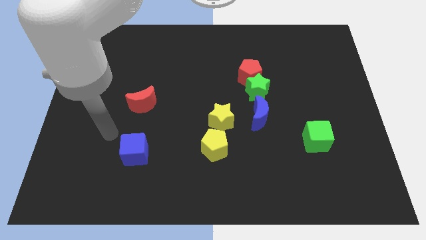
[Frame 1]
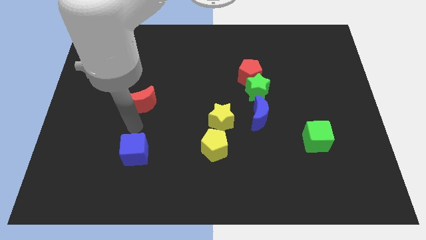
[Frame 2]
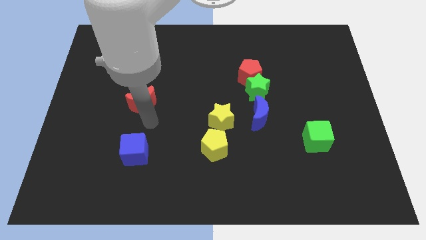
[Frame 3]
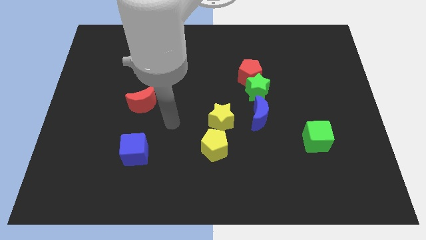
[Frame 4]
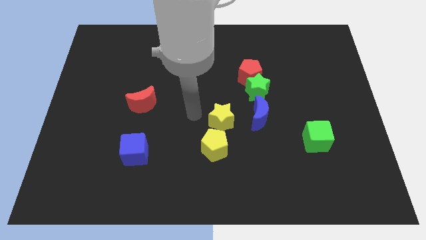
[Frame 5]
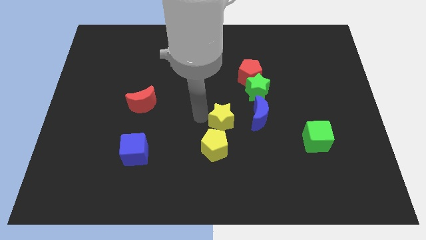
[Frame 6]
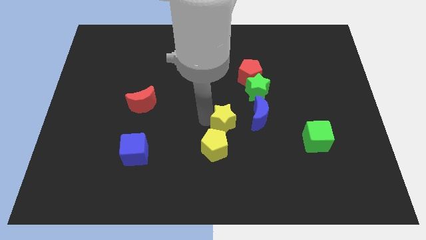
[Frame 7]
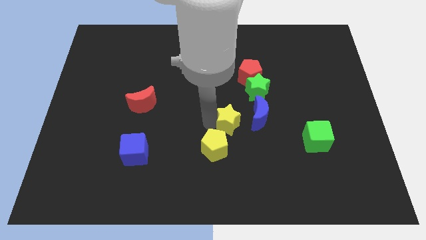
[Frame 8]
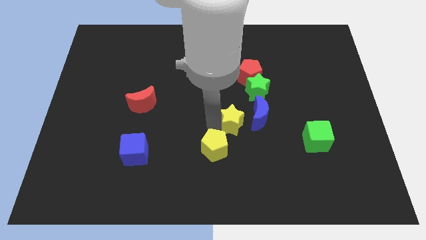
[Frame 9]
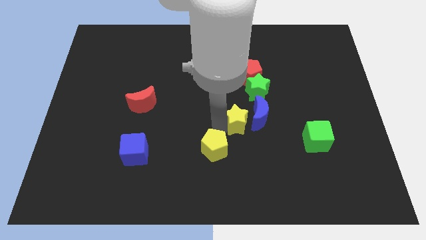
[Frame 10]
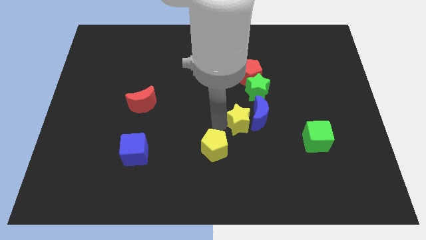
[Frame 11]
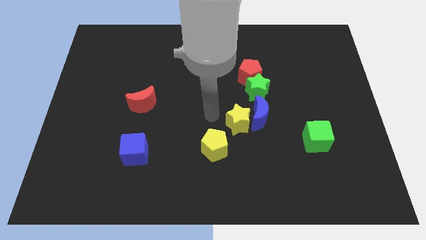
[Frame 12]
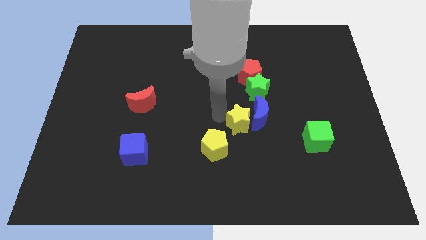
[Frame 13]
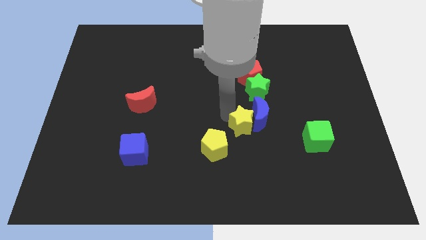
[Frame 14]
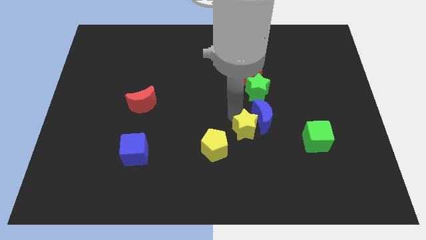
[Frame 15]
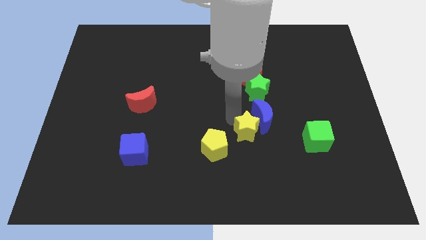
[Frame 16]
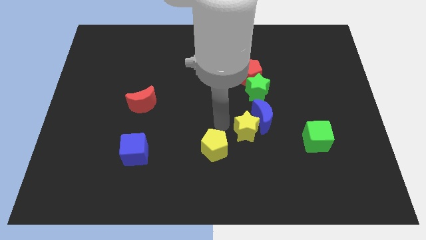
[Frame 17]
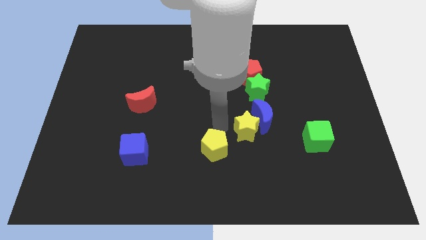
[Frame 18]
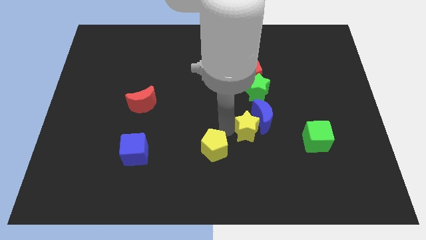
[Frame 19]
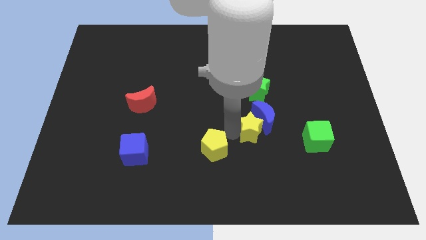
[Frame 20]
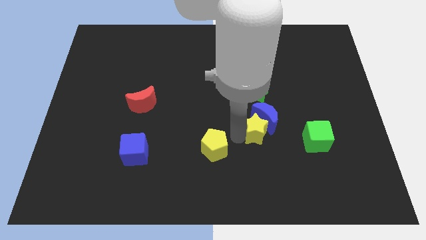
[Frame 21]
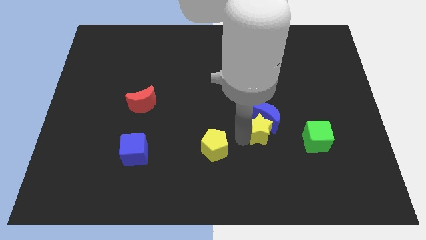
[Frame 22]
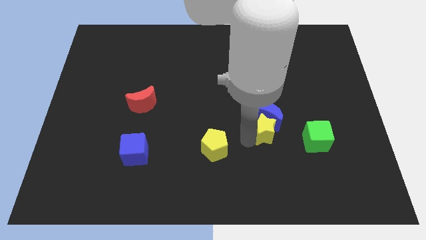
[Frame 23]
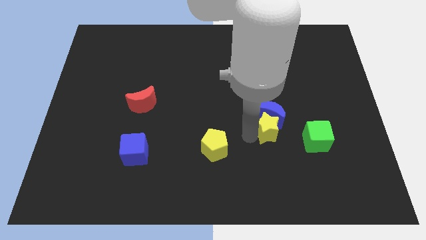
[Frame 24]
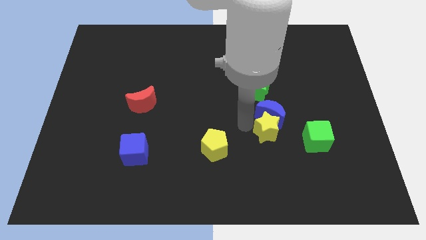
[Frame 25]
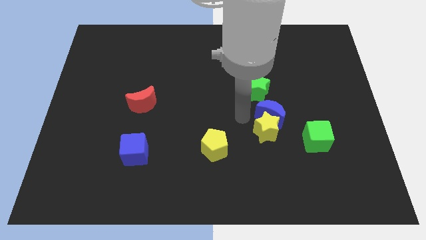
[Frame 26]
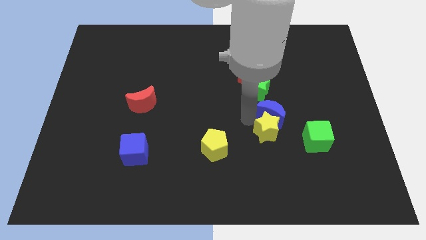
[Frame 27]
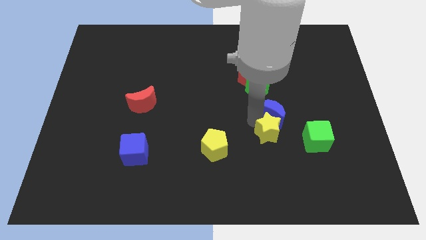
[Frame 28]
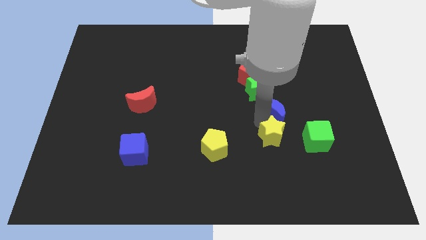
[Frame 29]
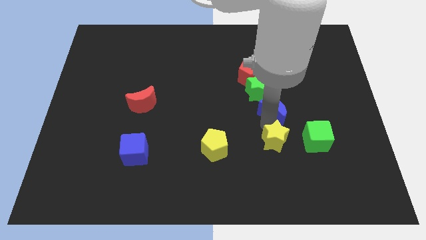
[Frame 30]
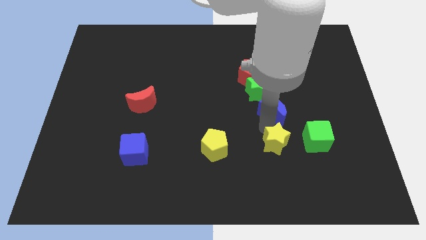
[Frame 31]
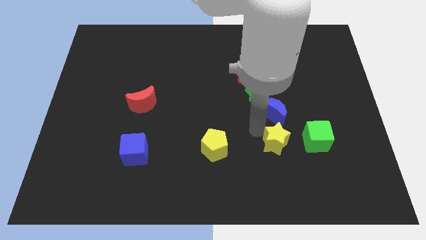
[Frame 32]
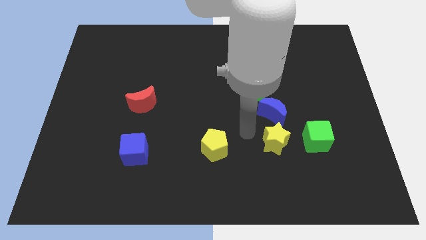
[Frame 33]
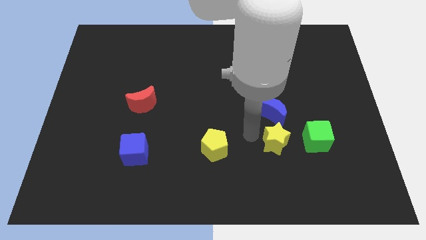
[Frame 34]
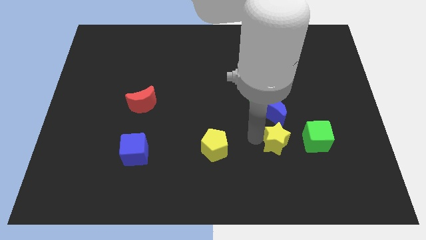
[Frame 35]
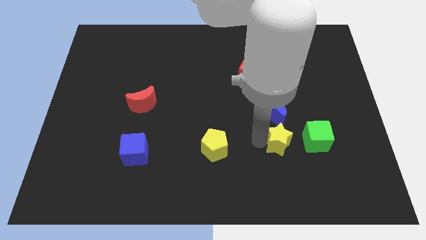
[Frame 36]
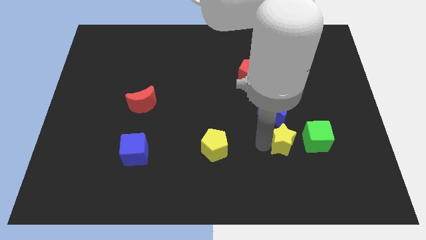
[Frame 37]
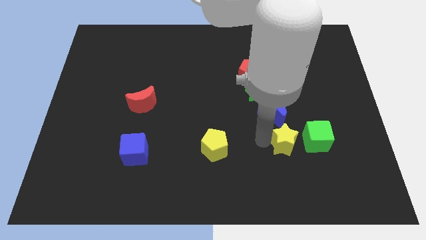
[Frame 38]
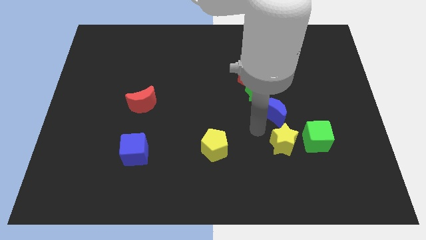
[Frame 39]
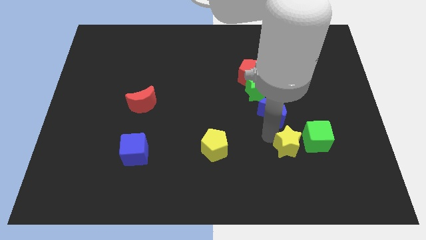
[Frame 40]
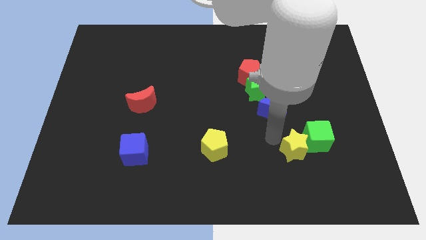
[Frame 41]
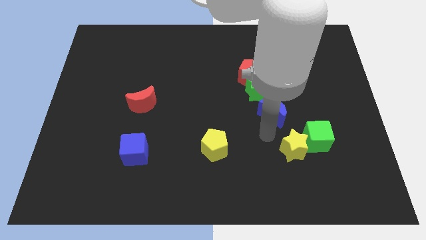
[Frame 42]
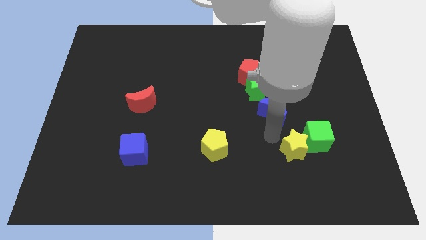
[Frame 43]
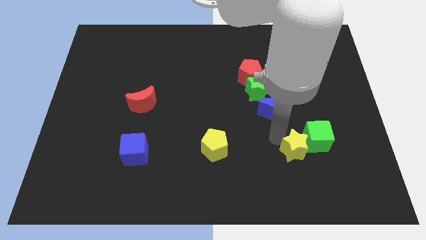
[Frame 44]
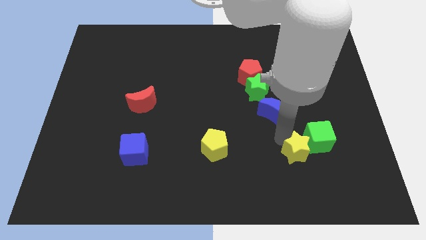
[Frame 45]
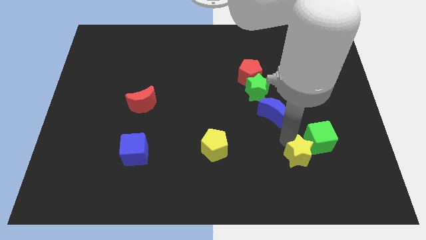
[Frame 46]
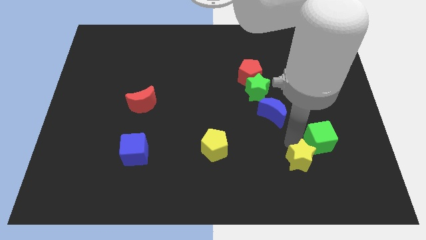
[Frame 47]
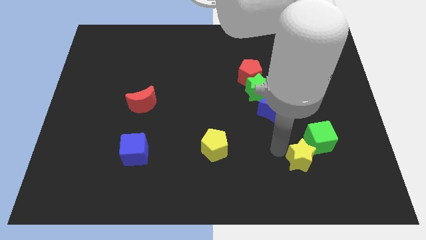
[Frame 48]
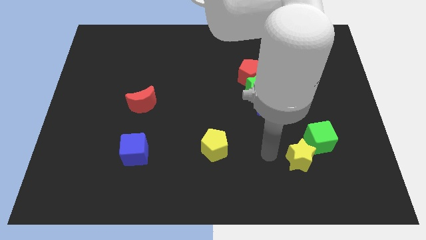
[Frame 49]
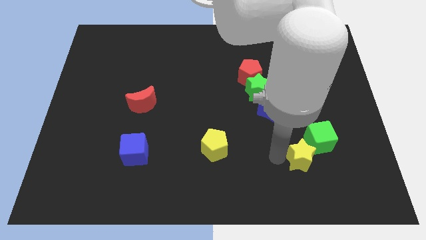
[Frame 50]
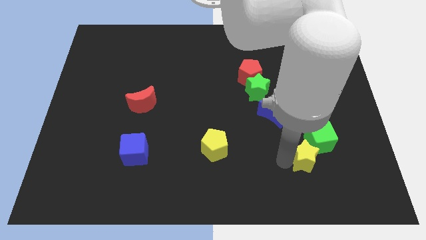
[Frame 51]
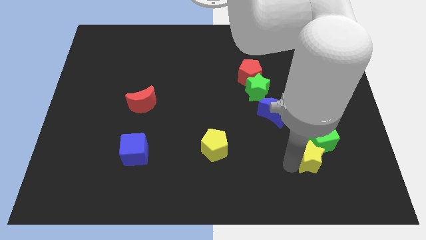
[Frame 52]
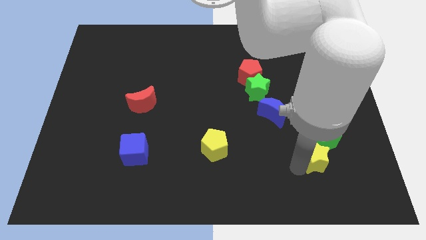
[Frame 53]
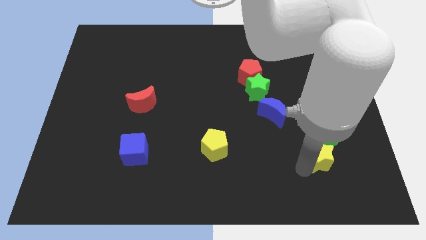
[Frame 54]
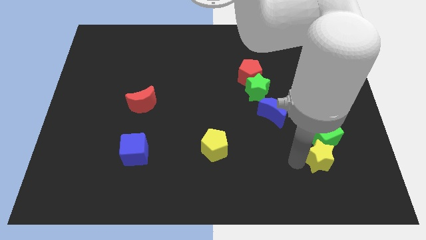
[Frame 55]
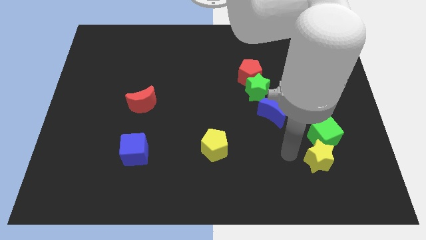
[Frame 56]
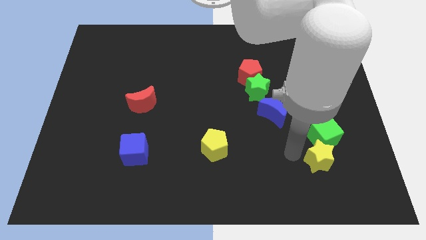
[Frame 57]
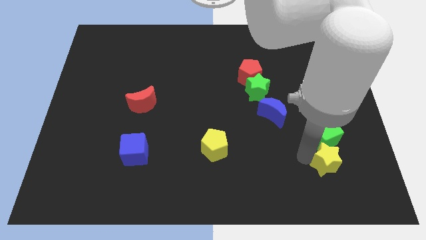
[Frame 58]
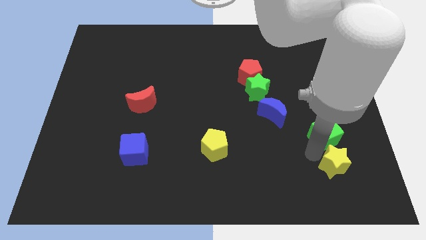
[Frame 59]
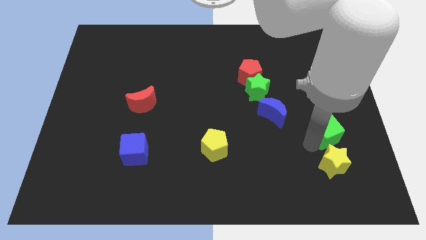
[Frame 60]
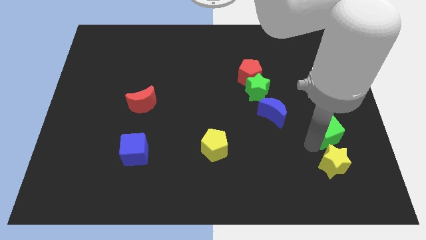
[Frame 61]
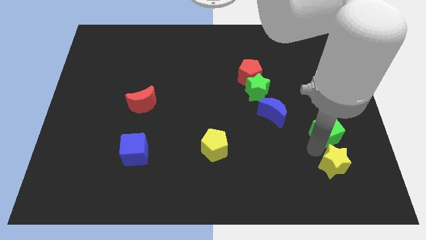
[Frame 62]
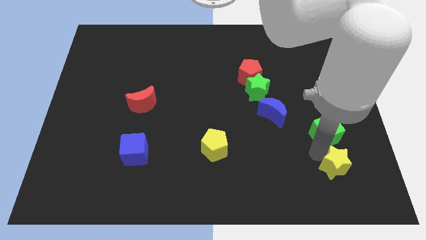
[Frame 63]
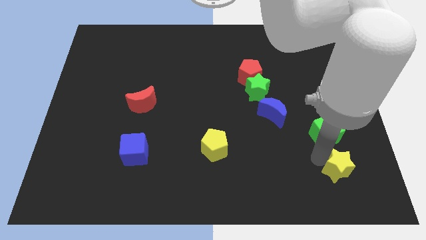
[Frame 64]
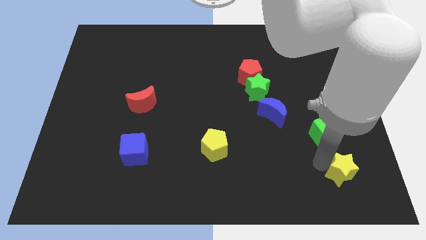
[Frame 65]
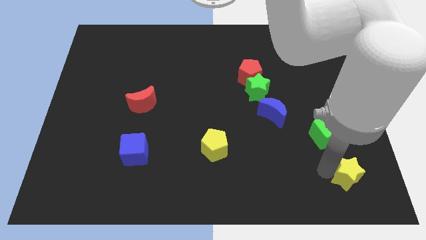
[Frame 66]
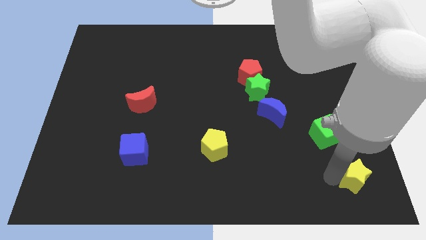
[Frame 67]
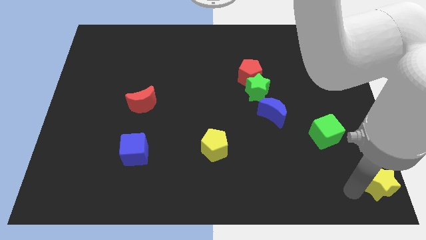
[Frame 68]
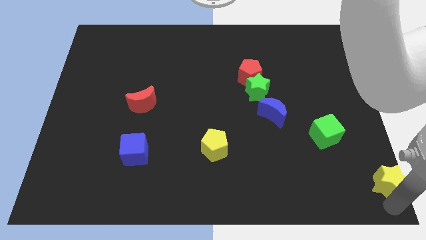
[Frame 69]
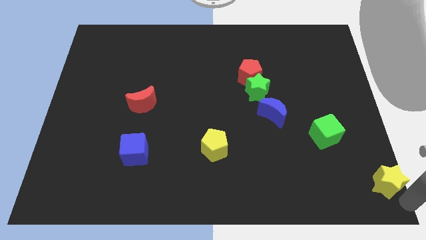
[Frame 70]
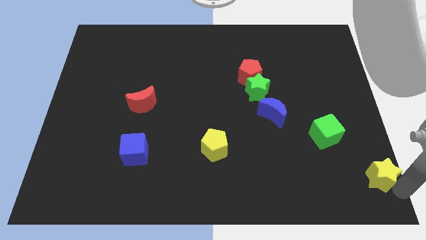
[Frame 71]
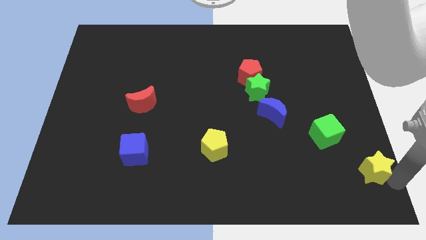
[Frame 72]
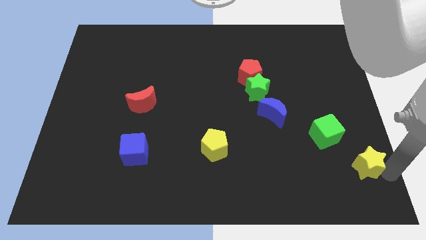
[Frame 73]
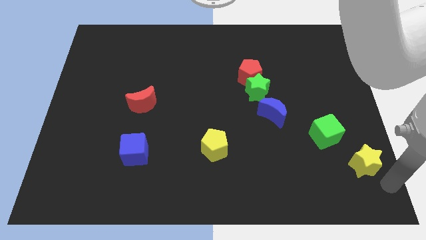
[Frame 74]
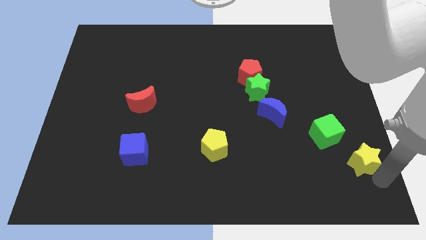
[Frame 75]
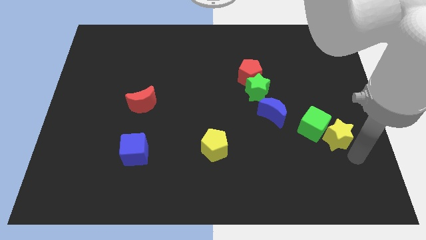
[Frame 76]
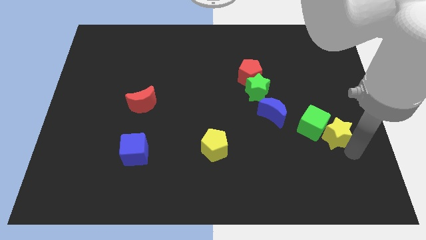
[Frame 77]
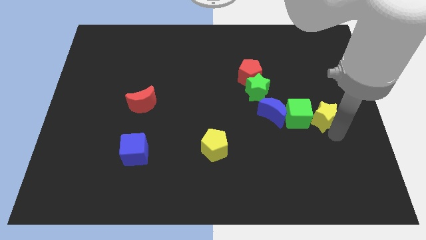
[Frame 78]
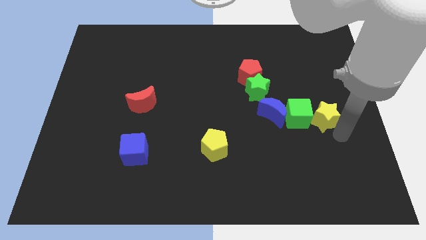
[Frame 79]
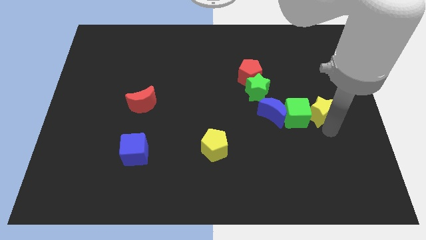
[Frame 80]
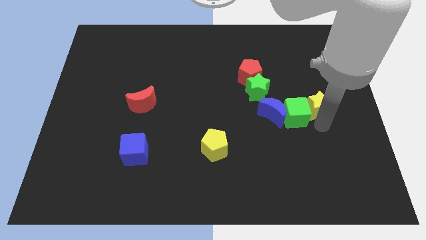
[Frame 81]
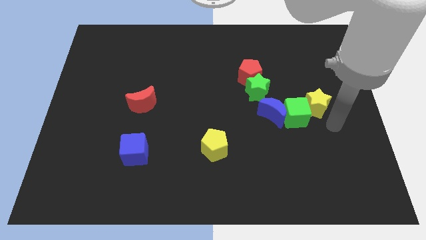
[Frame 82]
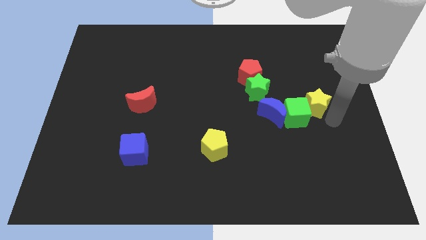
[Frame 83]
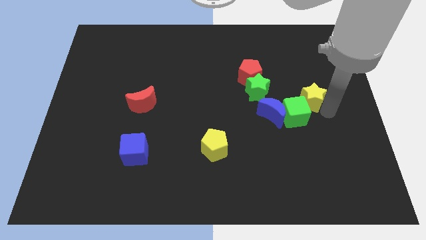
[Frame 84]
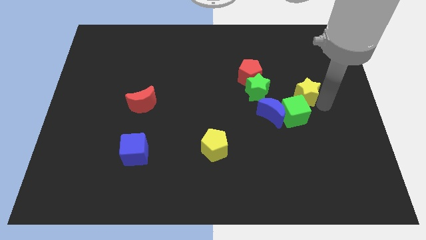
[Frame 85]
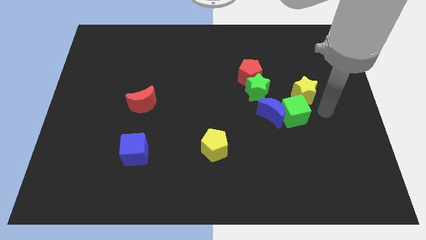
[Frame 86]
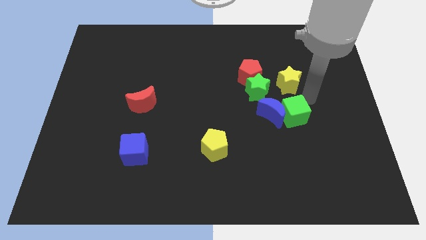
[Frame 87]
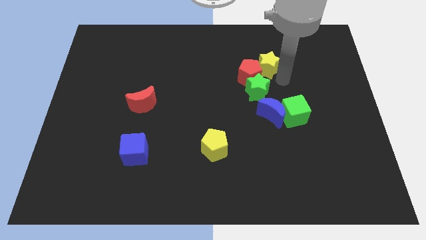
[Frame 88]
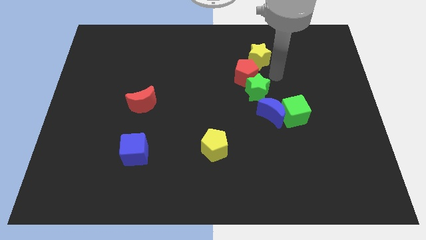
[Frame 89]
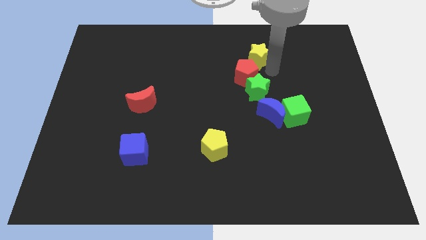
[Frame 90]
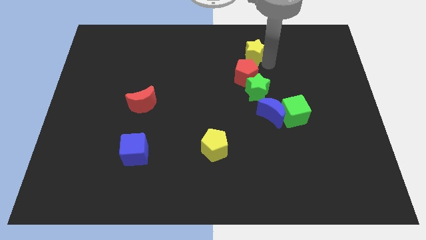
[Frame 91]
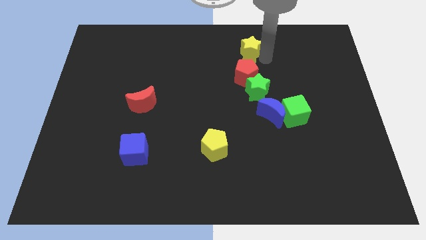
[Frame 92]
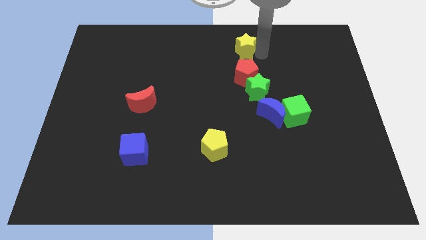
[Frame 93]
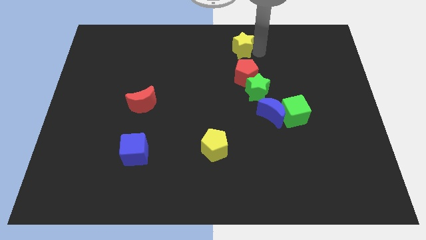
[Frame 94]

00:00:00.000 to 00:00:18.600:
put the yellow star to the top side
